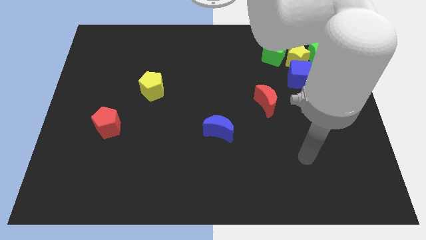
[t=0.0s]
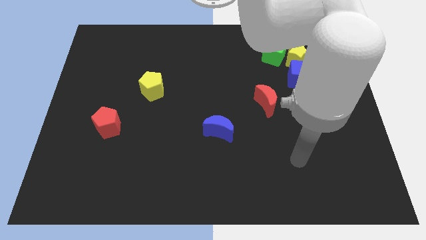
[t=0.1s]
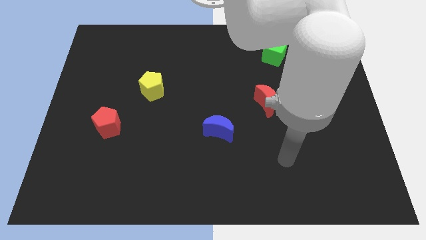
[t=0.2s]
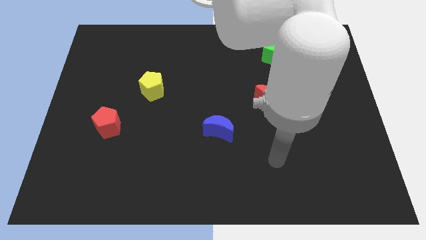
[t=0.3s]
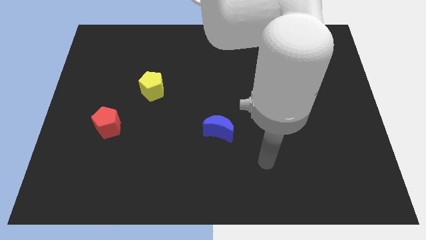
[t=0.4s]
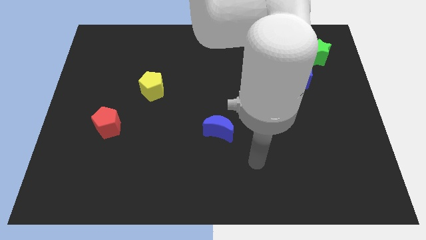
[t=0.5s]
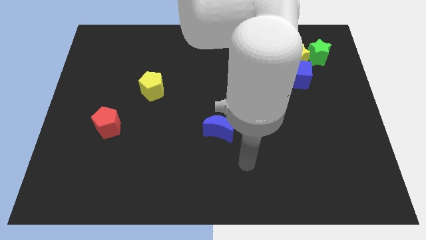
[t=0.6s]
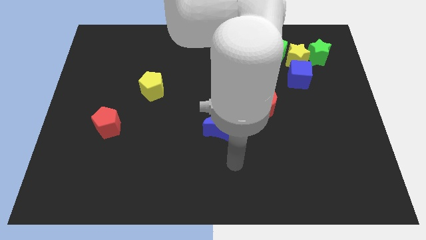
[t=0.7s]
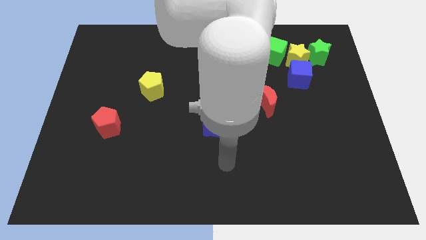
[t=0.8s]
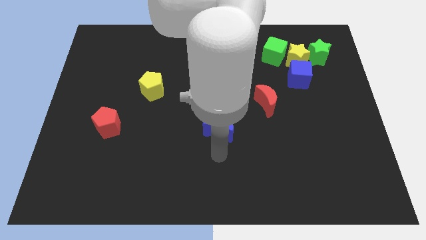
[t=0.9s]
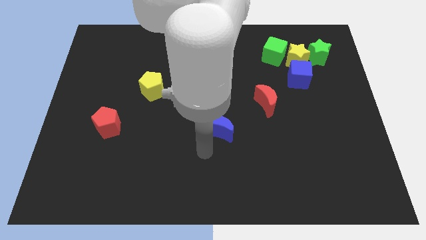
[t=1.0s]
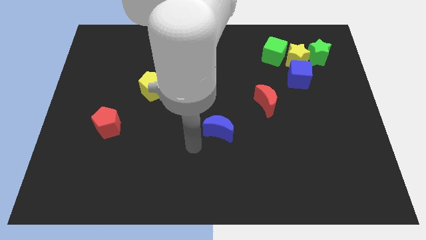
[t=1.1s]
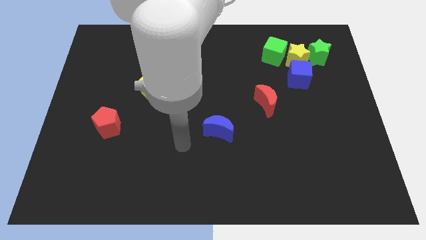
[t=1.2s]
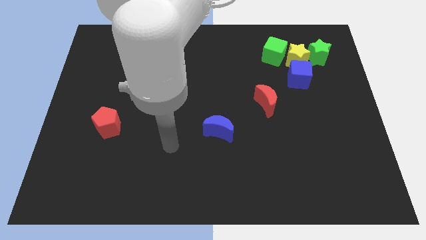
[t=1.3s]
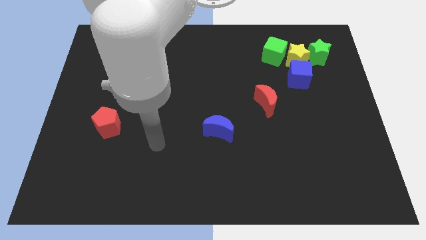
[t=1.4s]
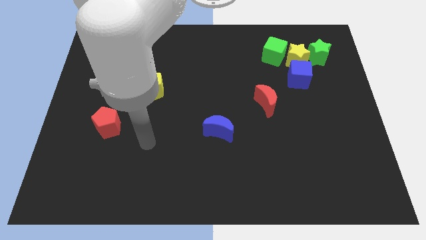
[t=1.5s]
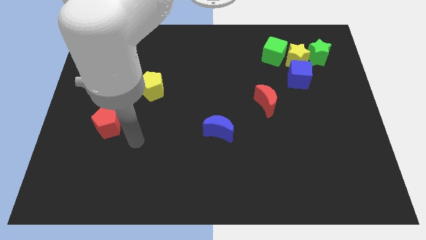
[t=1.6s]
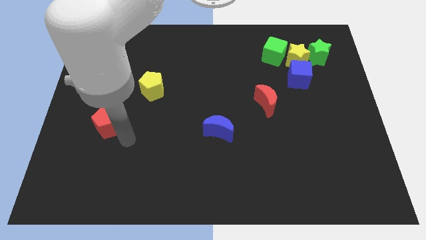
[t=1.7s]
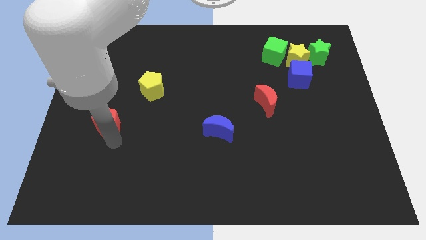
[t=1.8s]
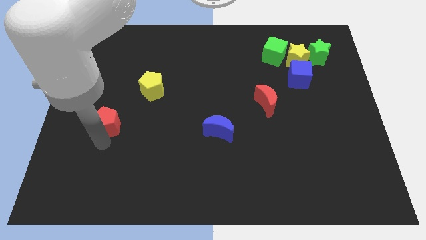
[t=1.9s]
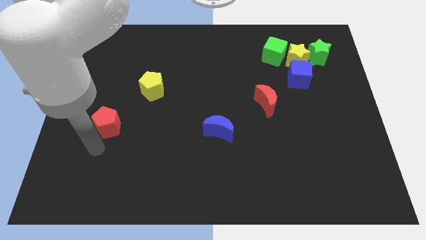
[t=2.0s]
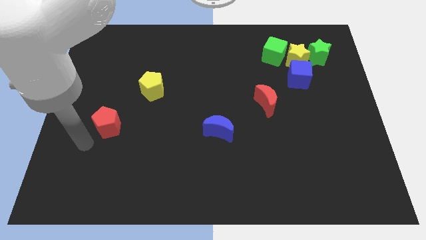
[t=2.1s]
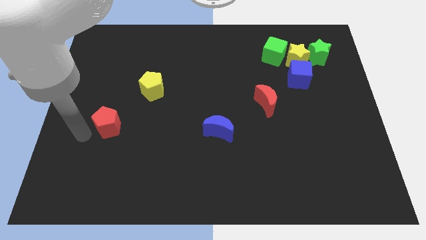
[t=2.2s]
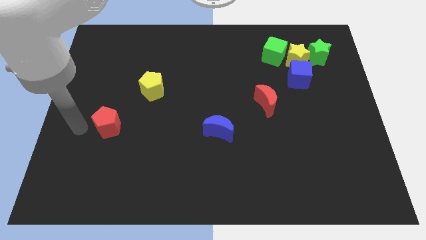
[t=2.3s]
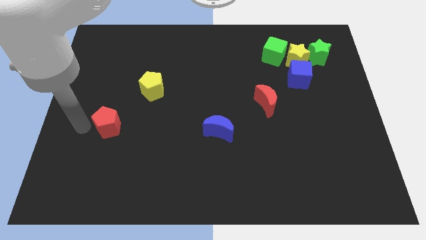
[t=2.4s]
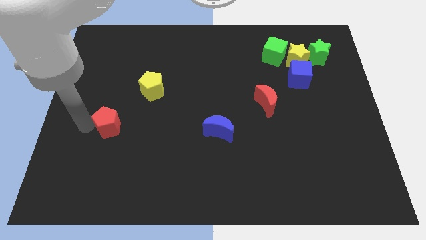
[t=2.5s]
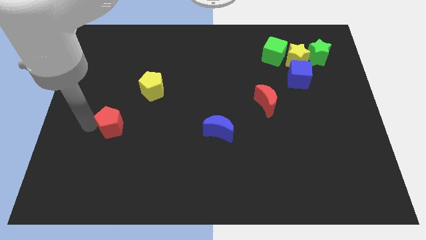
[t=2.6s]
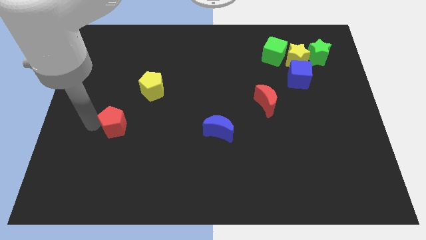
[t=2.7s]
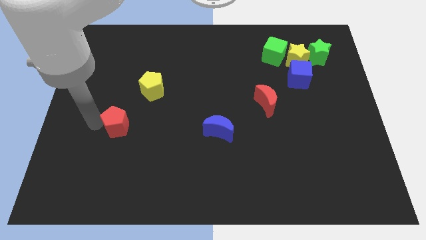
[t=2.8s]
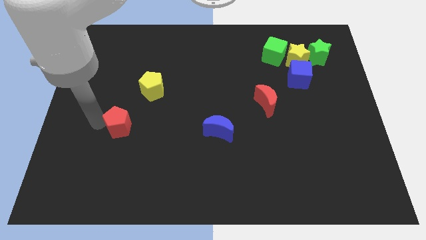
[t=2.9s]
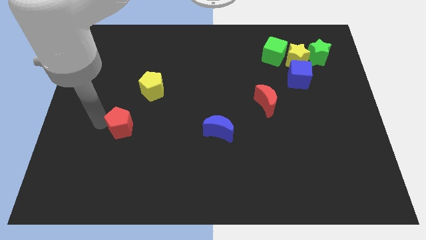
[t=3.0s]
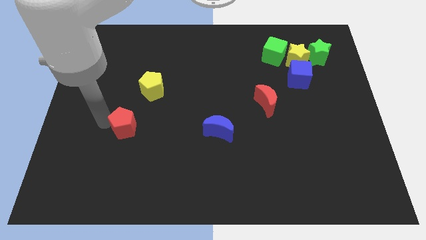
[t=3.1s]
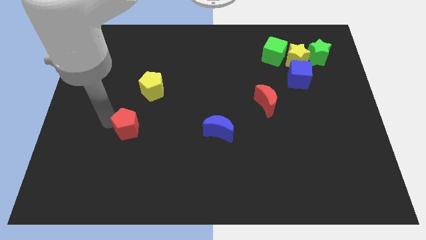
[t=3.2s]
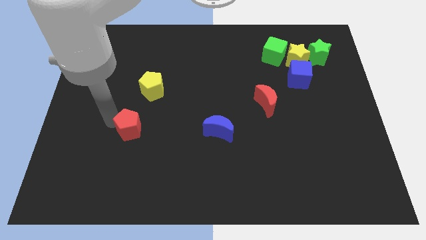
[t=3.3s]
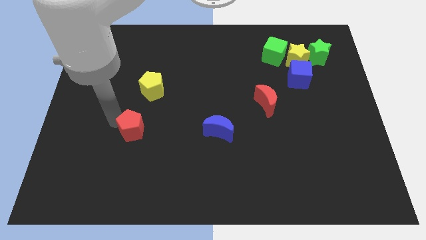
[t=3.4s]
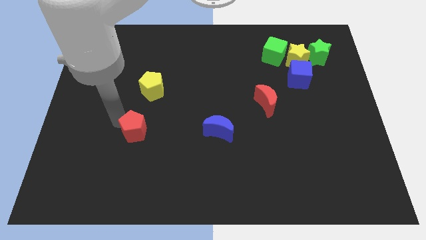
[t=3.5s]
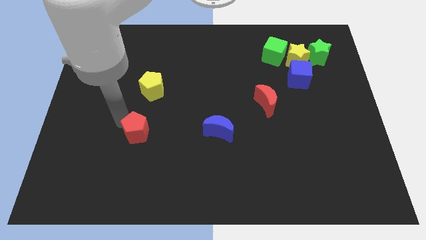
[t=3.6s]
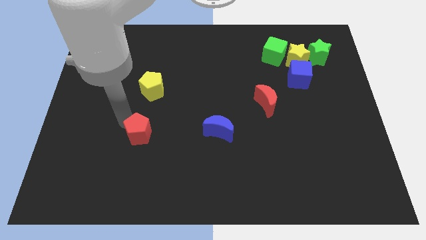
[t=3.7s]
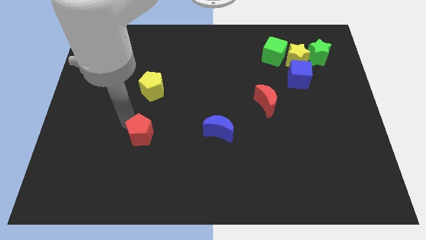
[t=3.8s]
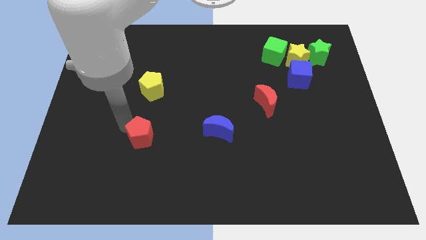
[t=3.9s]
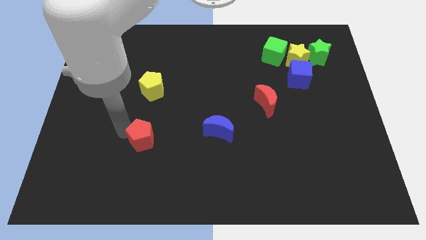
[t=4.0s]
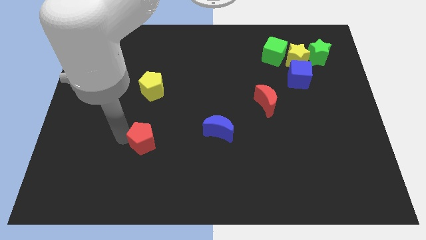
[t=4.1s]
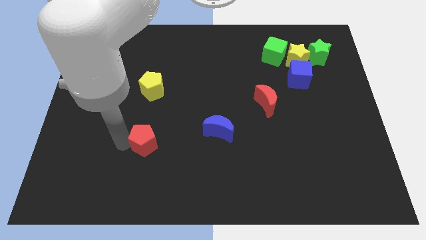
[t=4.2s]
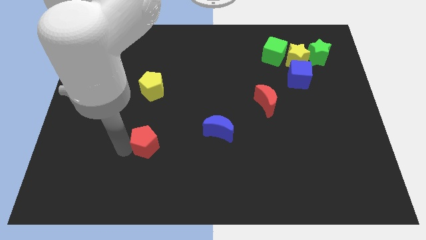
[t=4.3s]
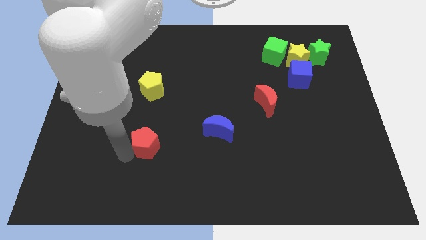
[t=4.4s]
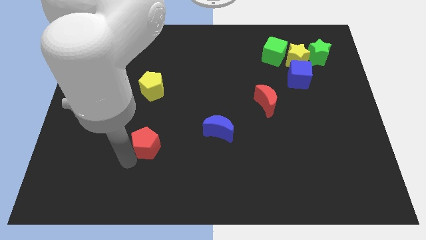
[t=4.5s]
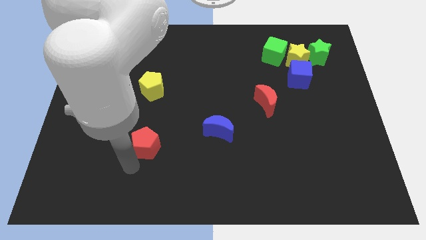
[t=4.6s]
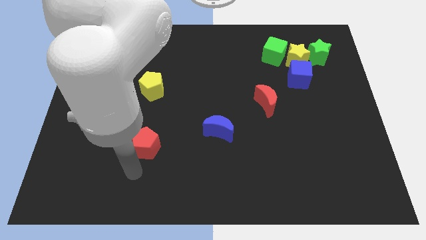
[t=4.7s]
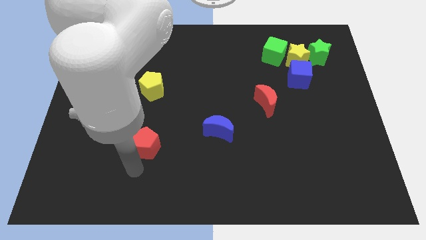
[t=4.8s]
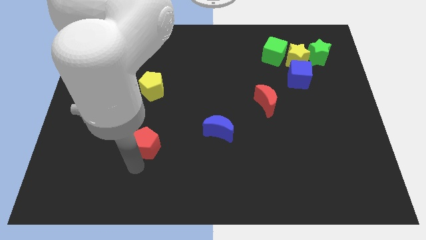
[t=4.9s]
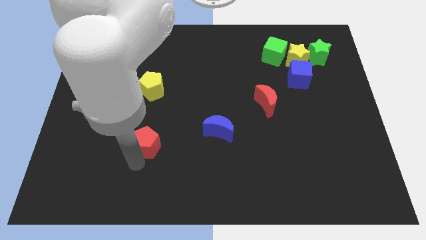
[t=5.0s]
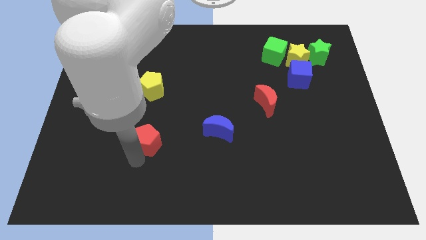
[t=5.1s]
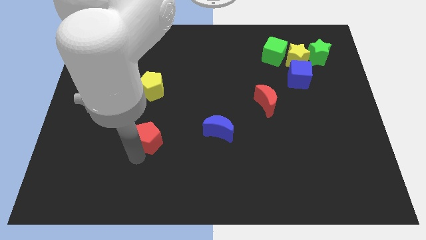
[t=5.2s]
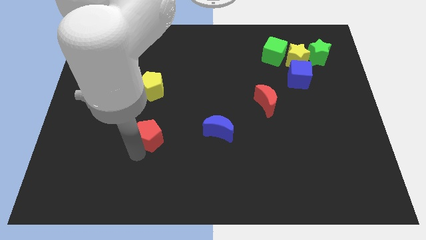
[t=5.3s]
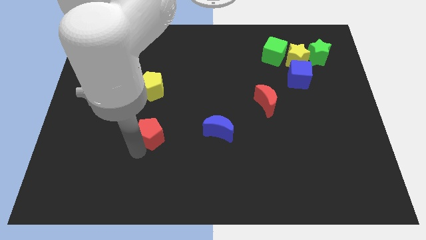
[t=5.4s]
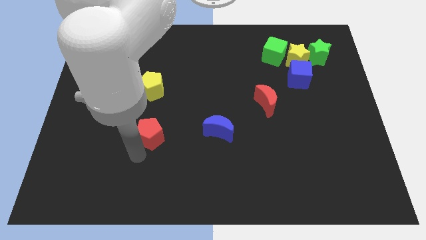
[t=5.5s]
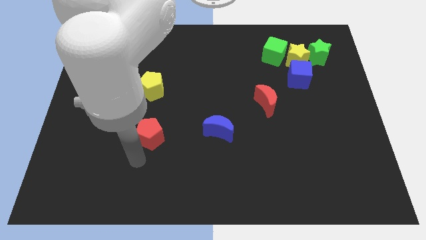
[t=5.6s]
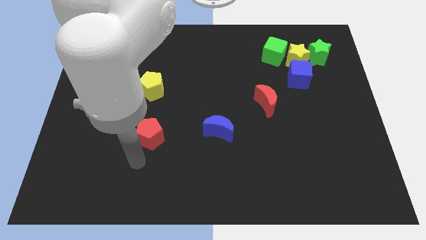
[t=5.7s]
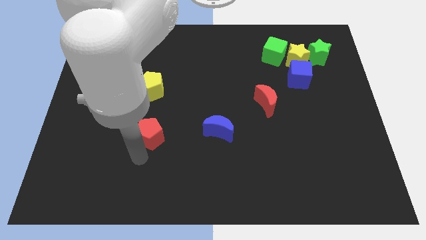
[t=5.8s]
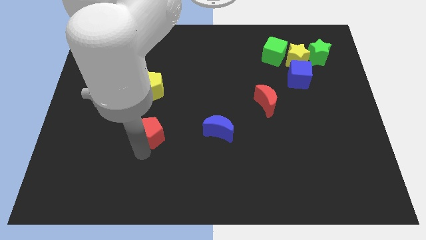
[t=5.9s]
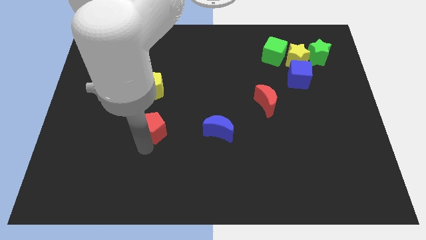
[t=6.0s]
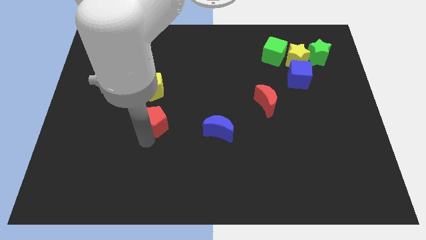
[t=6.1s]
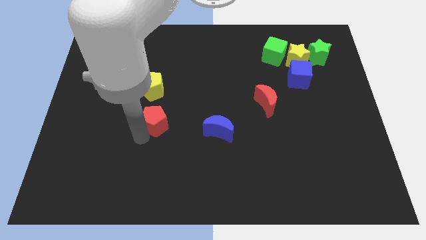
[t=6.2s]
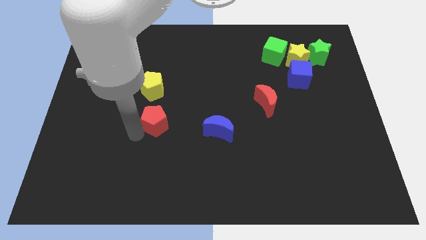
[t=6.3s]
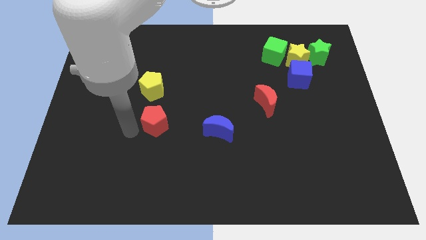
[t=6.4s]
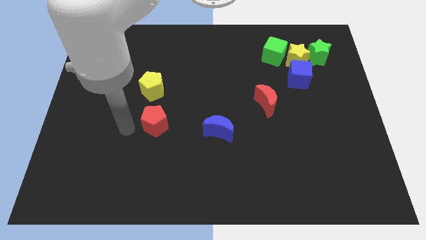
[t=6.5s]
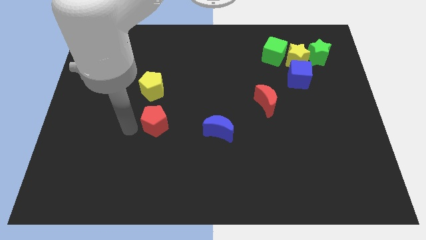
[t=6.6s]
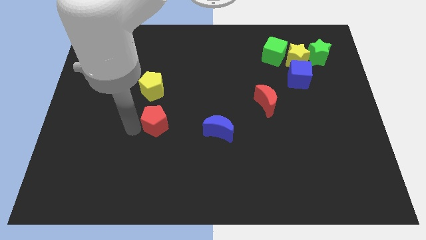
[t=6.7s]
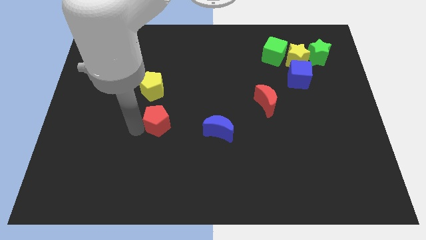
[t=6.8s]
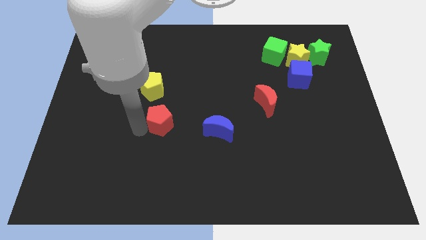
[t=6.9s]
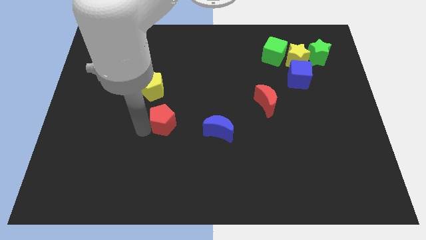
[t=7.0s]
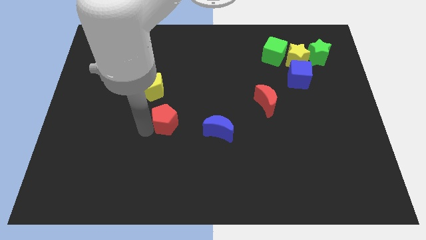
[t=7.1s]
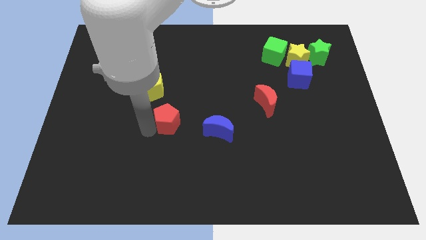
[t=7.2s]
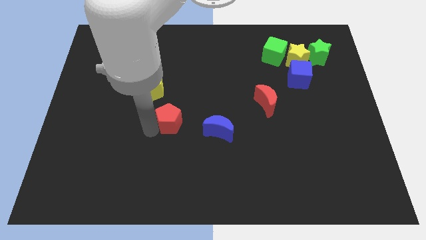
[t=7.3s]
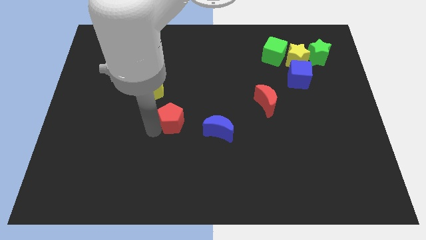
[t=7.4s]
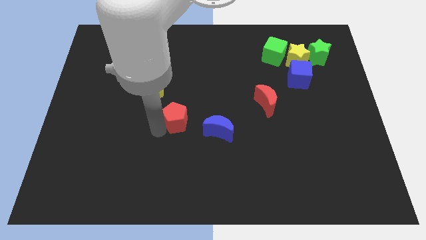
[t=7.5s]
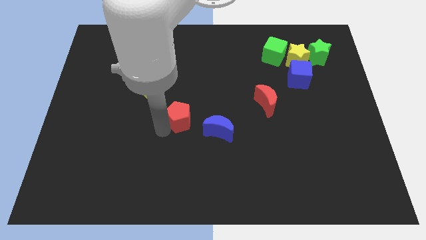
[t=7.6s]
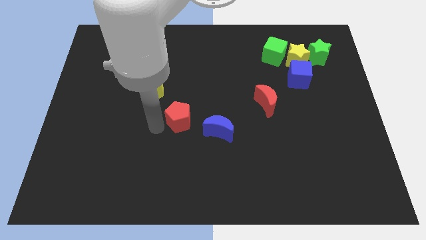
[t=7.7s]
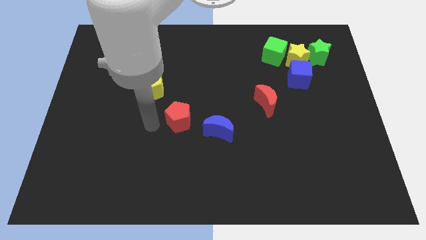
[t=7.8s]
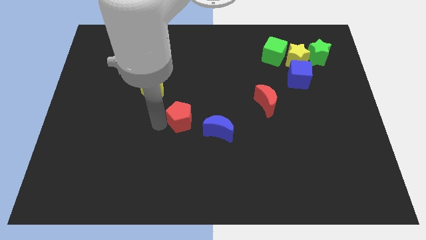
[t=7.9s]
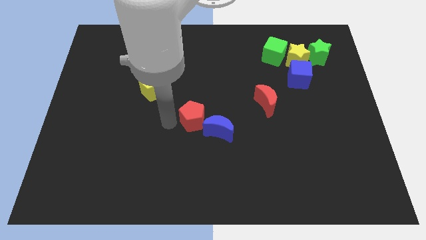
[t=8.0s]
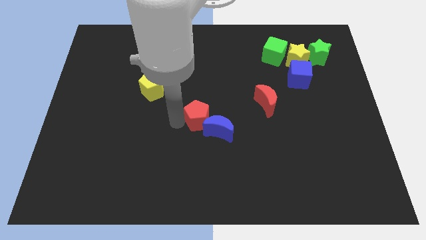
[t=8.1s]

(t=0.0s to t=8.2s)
slide the red pentagon right
